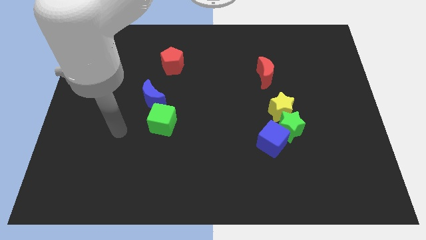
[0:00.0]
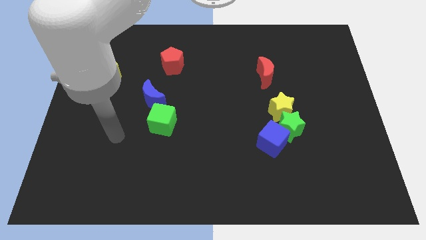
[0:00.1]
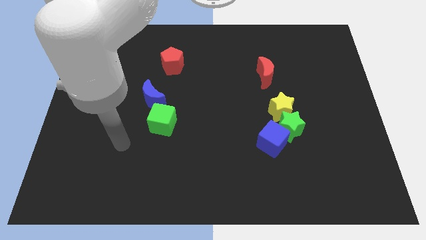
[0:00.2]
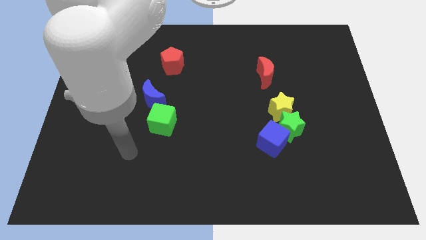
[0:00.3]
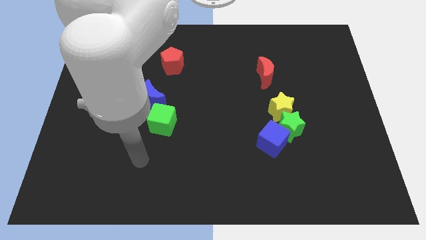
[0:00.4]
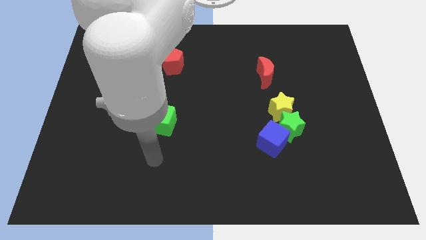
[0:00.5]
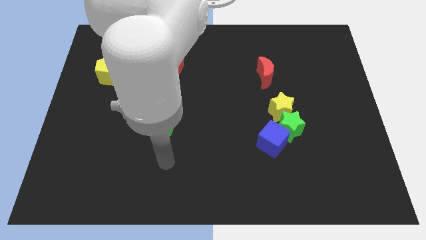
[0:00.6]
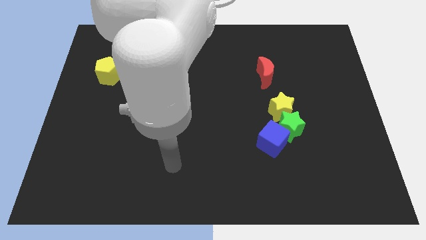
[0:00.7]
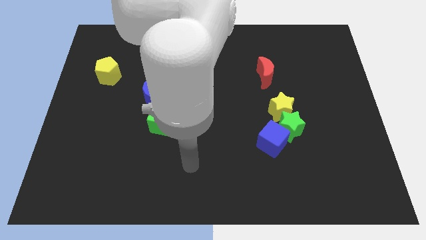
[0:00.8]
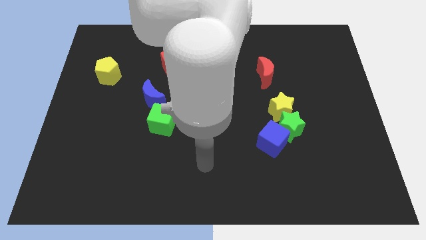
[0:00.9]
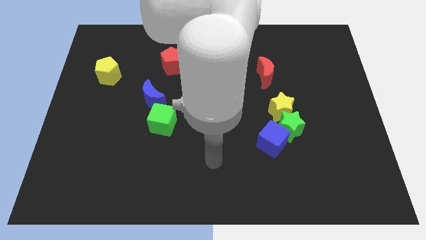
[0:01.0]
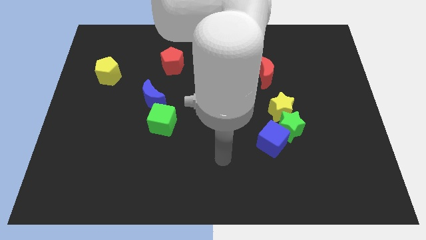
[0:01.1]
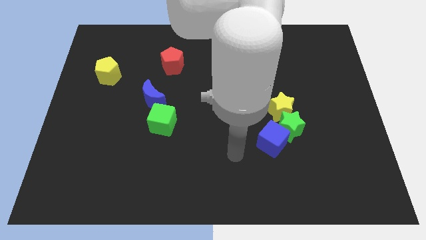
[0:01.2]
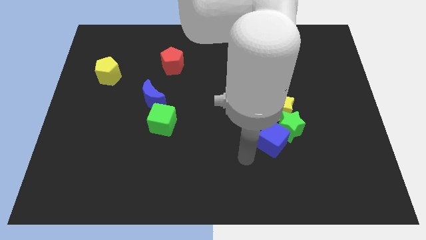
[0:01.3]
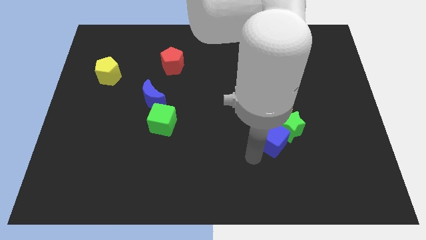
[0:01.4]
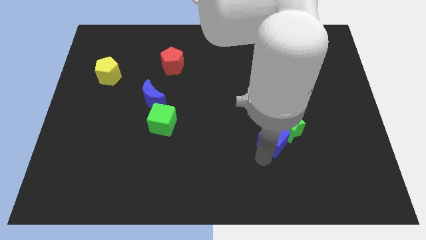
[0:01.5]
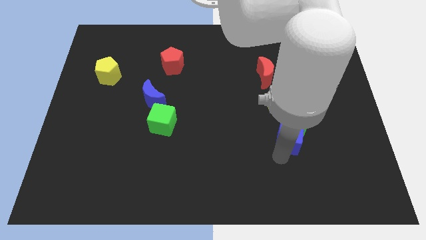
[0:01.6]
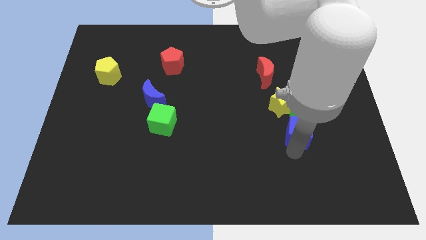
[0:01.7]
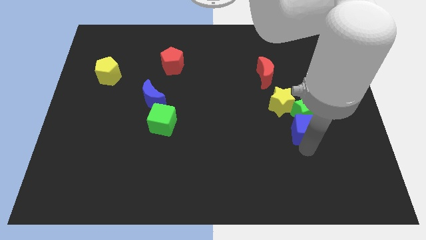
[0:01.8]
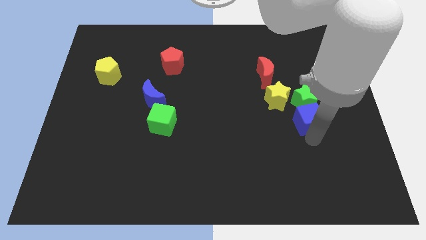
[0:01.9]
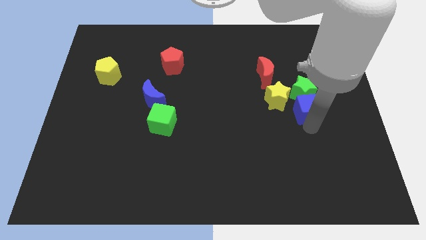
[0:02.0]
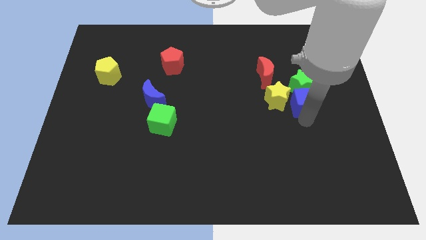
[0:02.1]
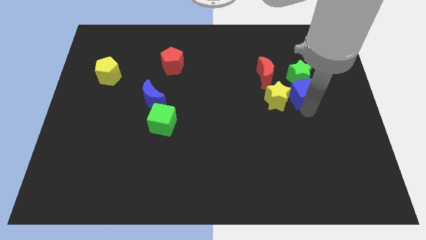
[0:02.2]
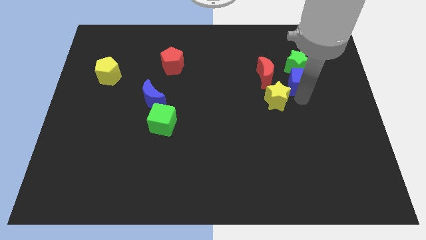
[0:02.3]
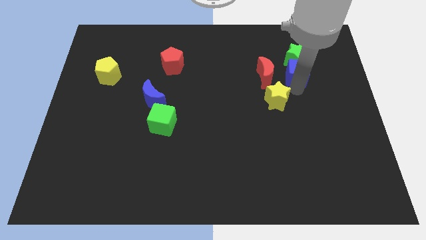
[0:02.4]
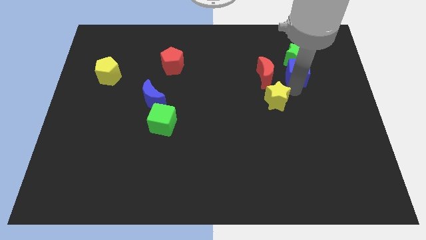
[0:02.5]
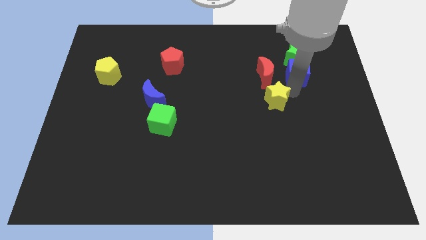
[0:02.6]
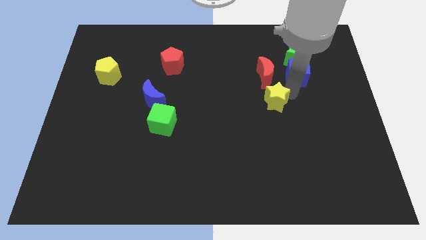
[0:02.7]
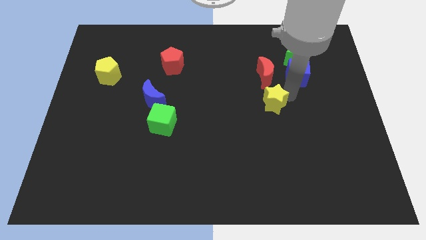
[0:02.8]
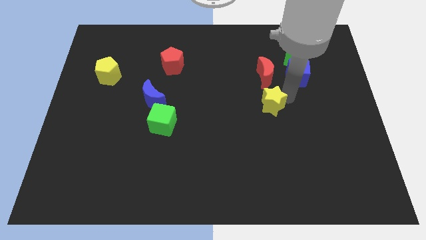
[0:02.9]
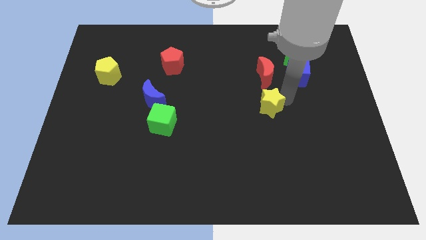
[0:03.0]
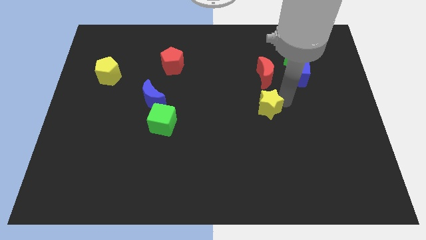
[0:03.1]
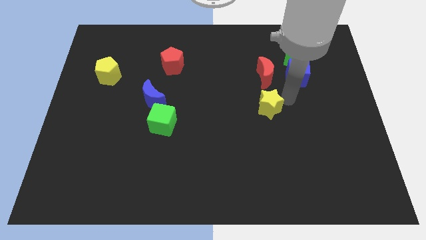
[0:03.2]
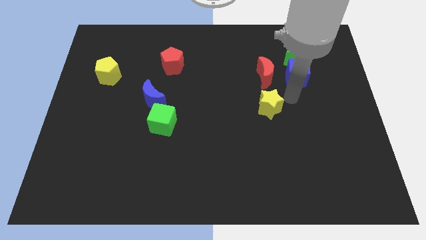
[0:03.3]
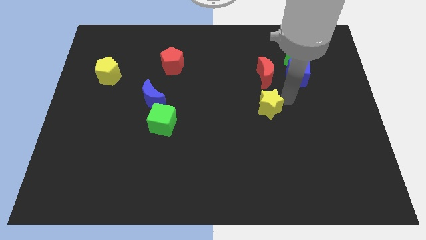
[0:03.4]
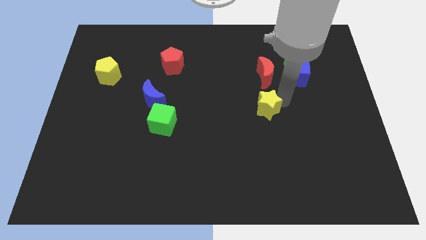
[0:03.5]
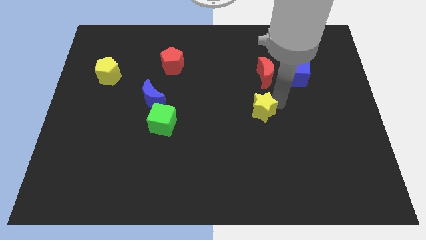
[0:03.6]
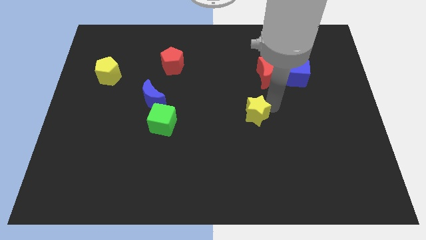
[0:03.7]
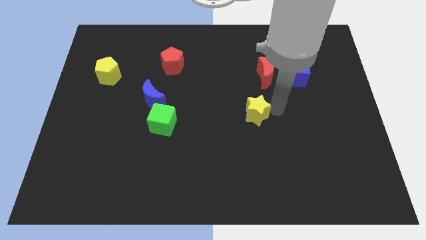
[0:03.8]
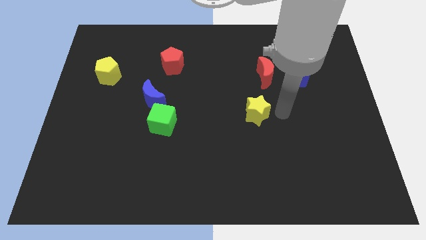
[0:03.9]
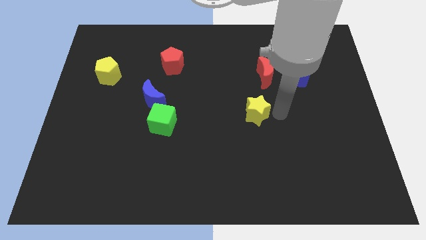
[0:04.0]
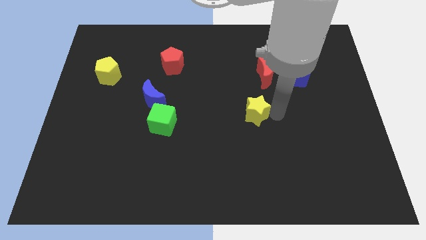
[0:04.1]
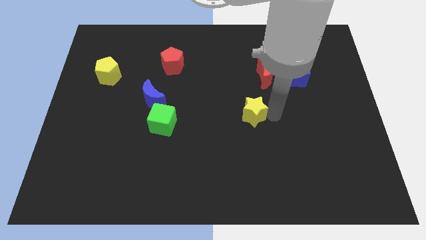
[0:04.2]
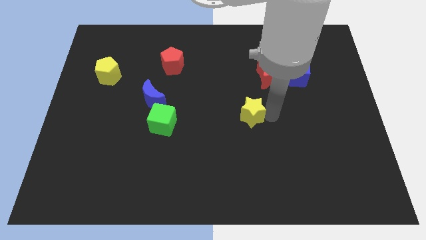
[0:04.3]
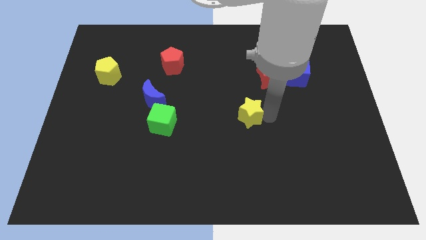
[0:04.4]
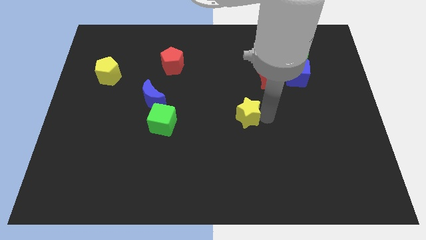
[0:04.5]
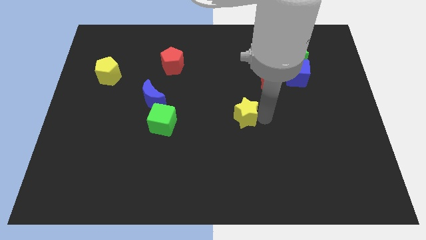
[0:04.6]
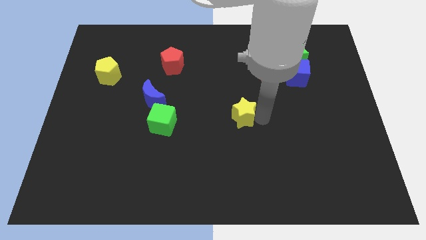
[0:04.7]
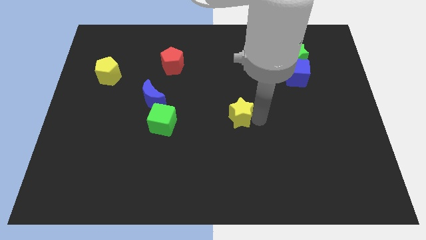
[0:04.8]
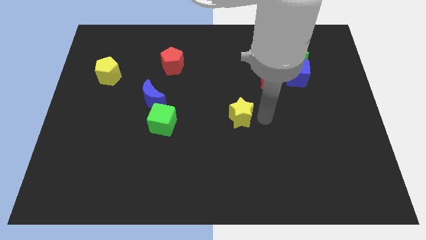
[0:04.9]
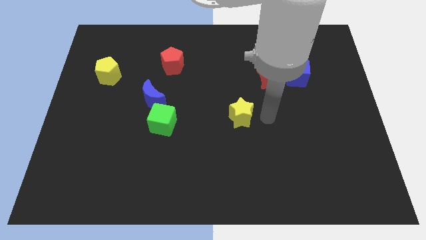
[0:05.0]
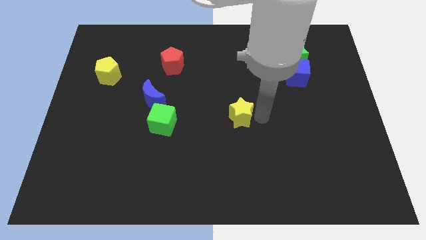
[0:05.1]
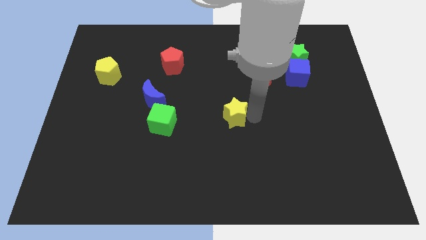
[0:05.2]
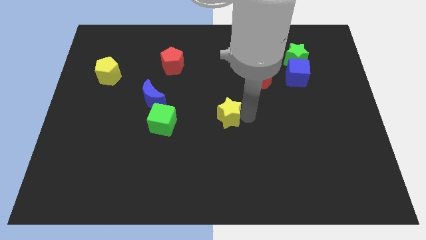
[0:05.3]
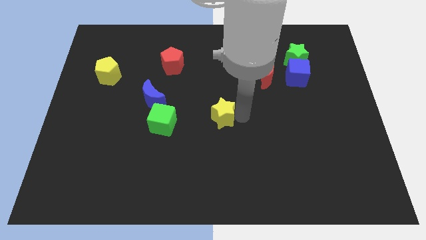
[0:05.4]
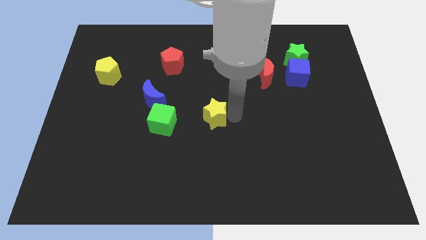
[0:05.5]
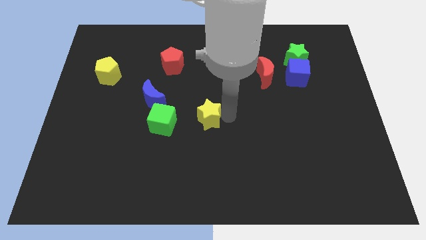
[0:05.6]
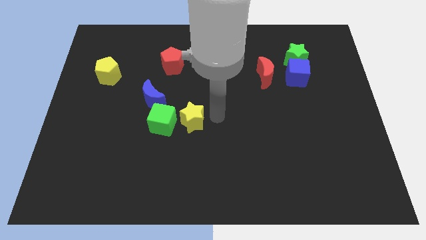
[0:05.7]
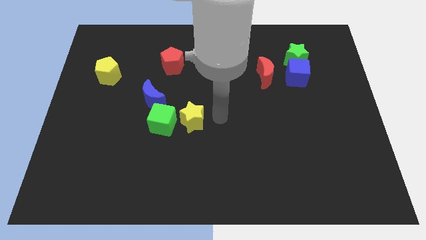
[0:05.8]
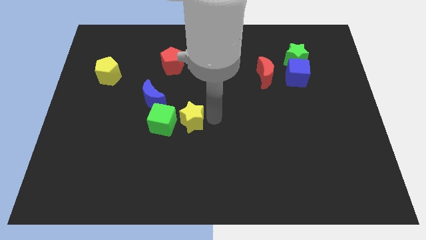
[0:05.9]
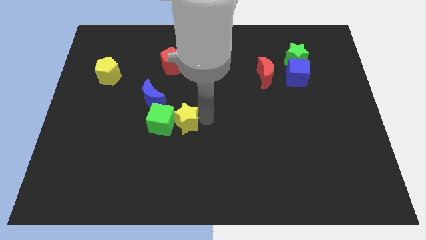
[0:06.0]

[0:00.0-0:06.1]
move the yellow star to the green cube

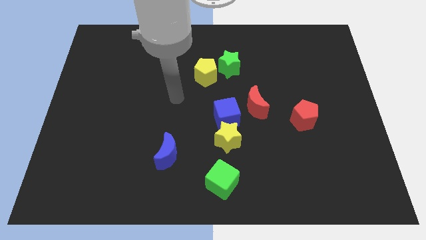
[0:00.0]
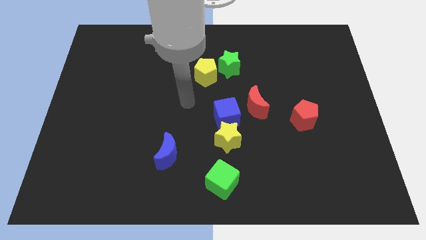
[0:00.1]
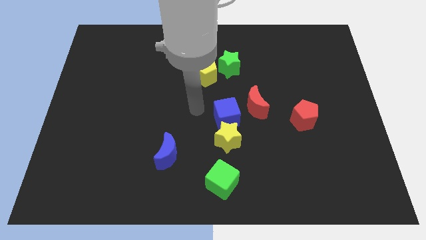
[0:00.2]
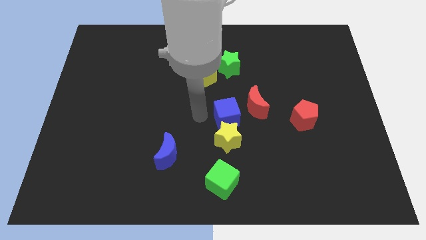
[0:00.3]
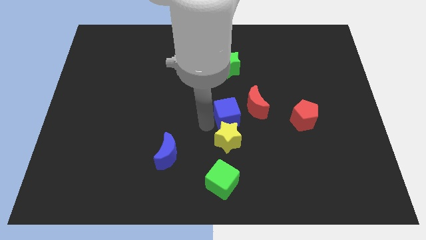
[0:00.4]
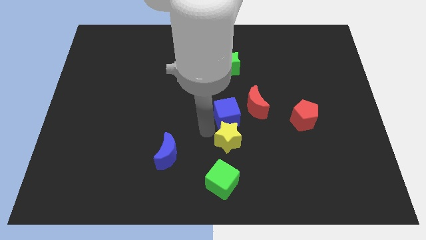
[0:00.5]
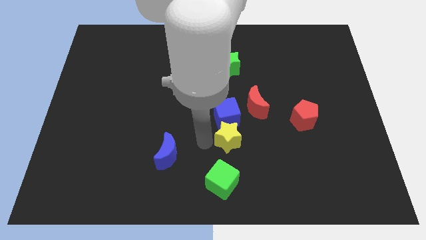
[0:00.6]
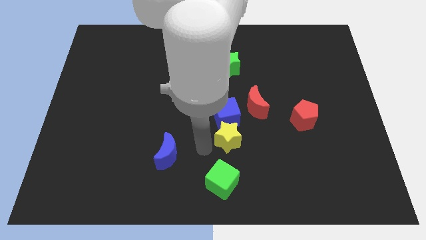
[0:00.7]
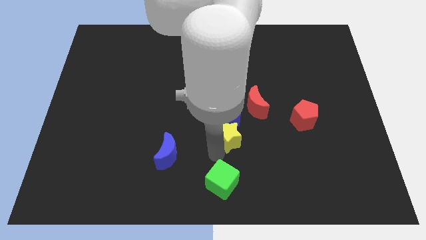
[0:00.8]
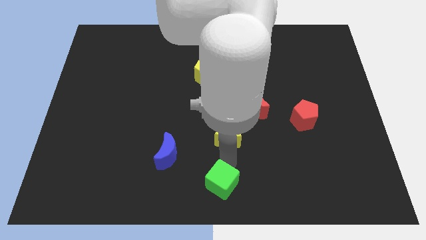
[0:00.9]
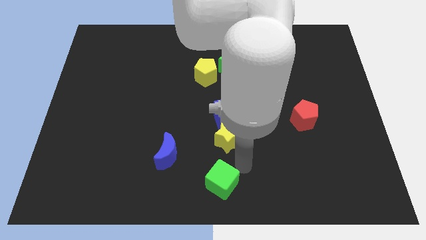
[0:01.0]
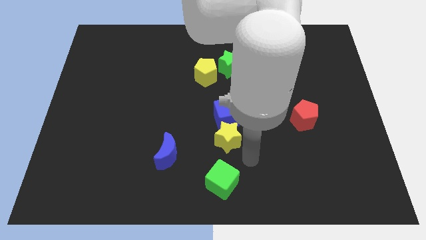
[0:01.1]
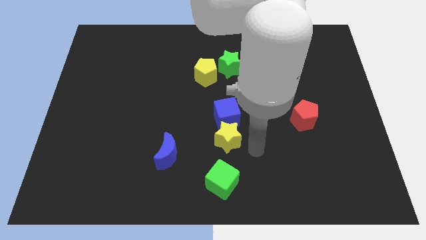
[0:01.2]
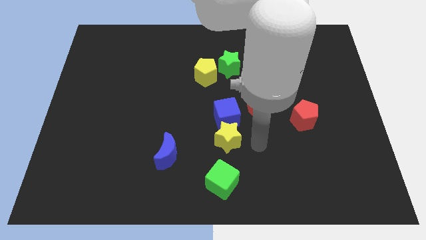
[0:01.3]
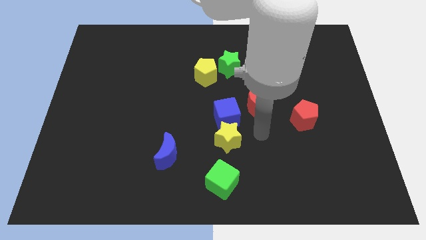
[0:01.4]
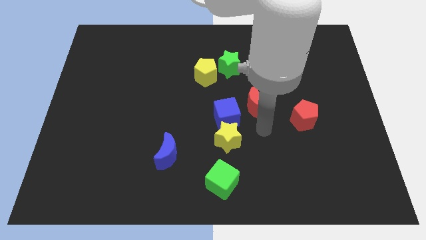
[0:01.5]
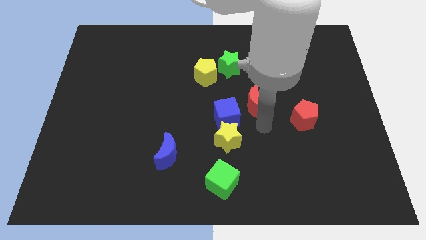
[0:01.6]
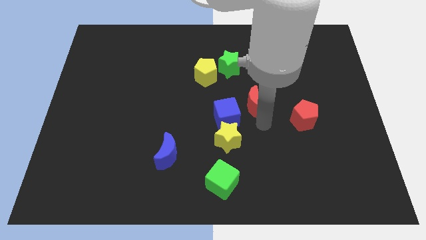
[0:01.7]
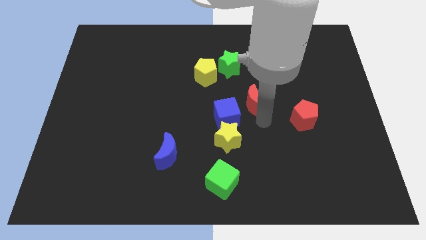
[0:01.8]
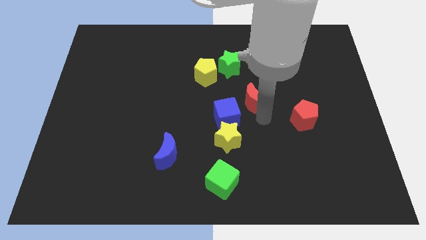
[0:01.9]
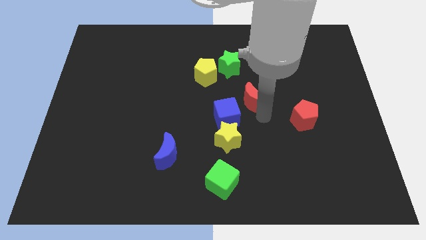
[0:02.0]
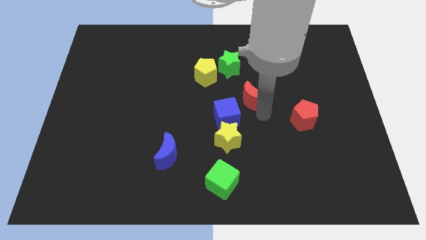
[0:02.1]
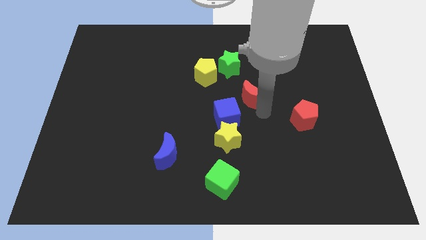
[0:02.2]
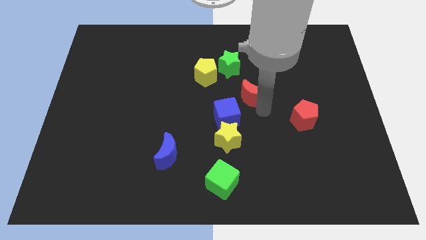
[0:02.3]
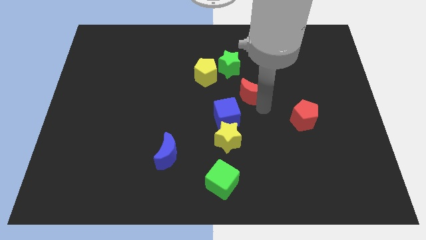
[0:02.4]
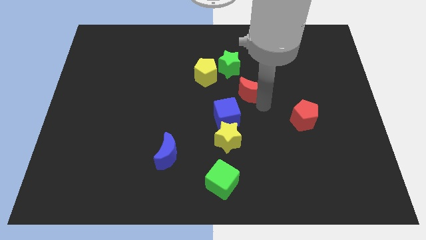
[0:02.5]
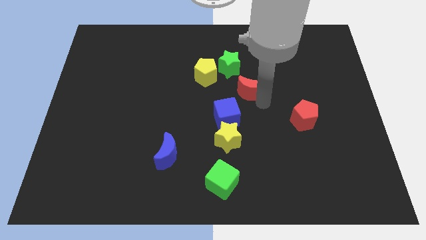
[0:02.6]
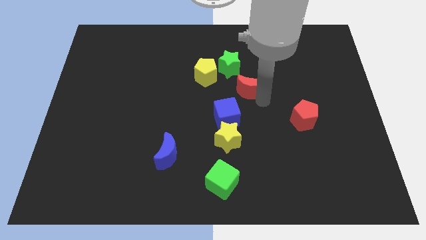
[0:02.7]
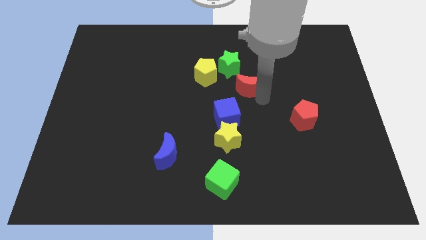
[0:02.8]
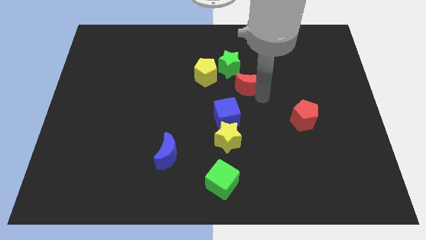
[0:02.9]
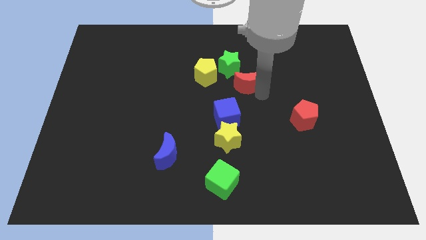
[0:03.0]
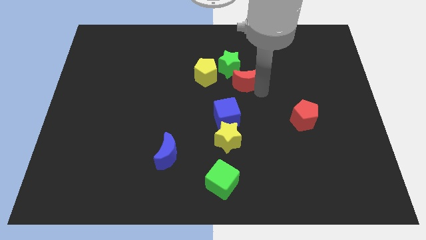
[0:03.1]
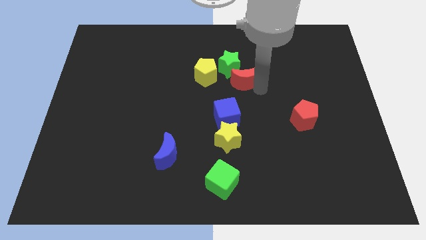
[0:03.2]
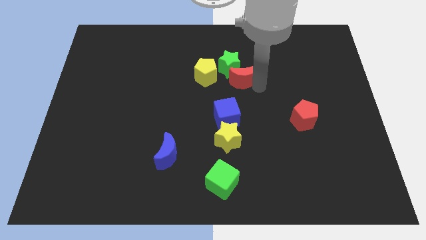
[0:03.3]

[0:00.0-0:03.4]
put the red moon towards the green star
